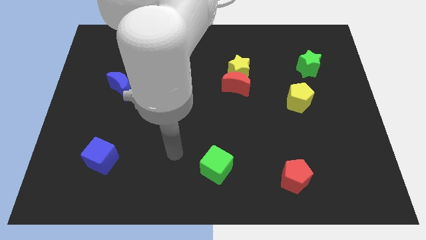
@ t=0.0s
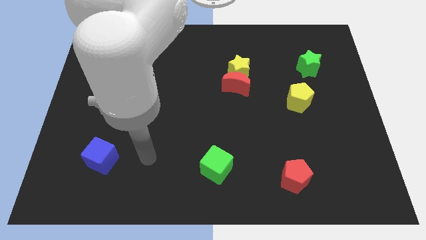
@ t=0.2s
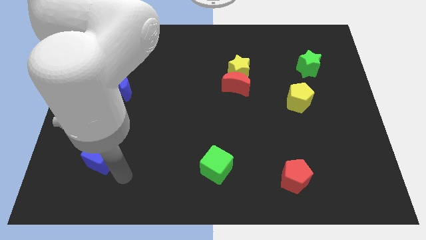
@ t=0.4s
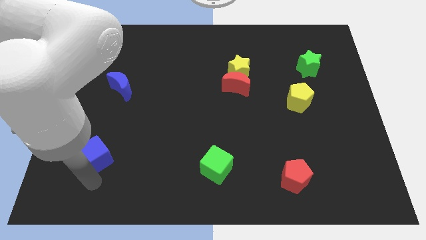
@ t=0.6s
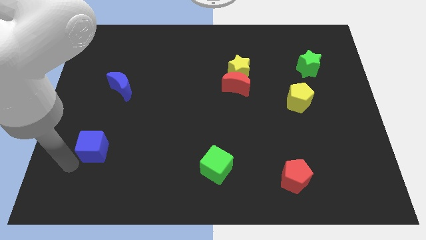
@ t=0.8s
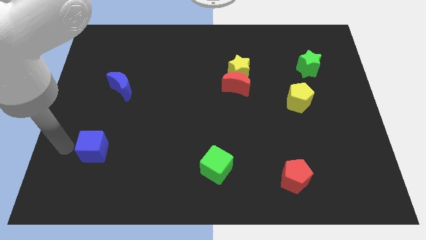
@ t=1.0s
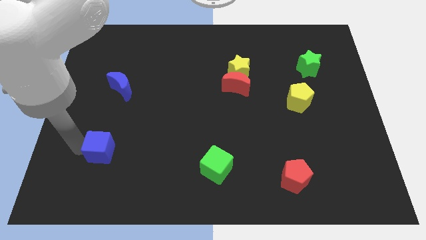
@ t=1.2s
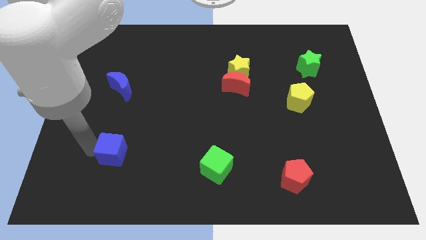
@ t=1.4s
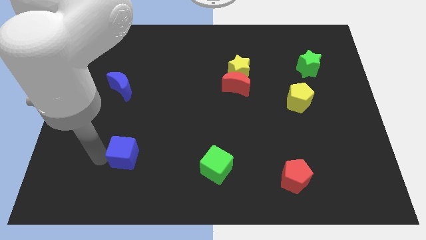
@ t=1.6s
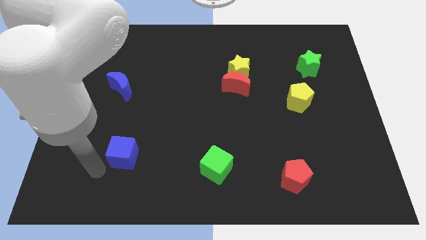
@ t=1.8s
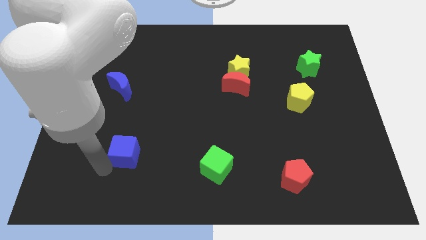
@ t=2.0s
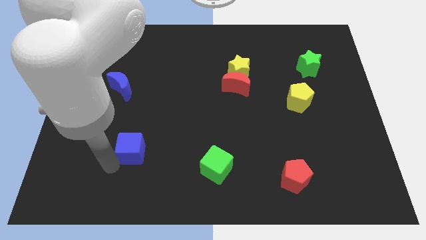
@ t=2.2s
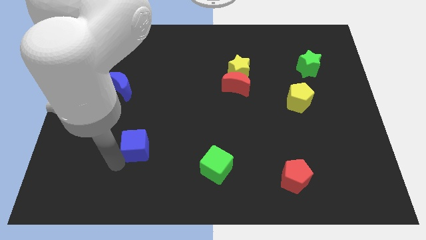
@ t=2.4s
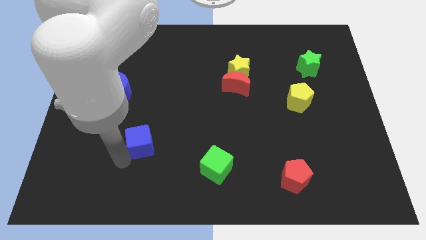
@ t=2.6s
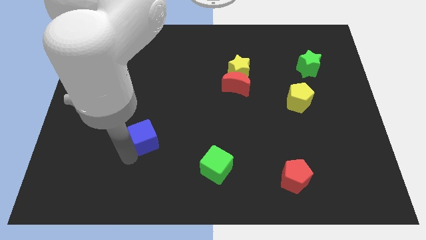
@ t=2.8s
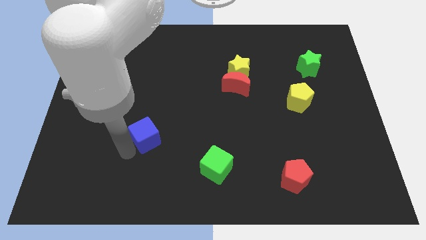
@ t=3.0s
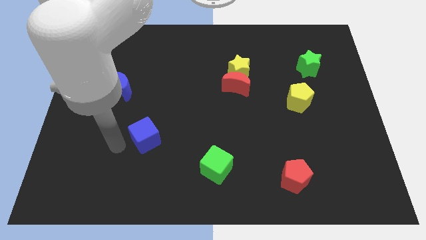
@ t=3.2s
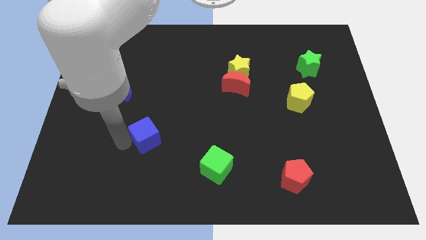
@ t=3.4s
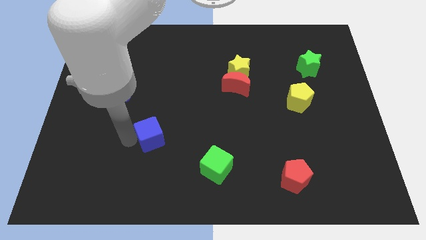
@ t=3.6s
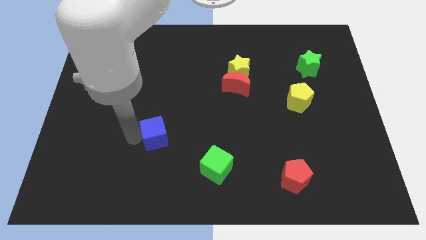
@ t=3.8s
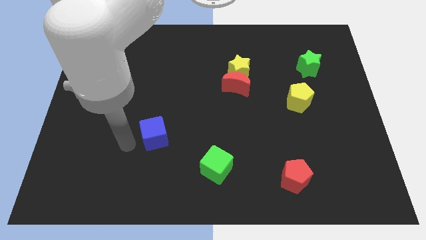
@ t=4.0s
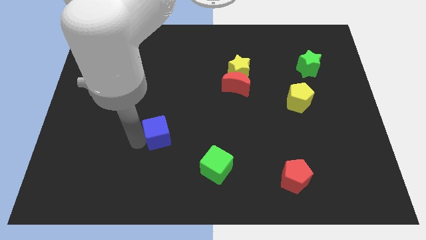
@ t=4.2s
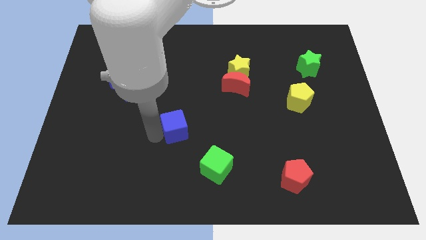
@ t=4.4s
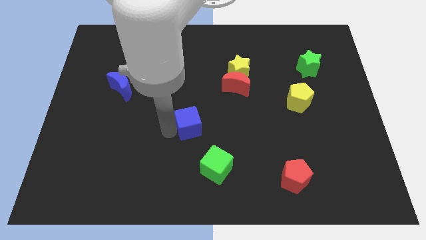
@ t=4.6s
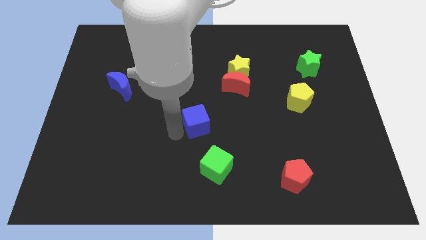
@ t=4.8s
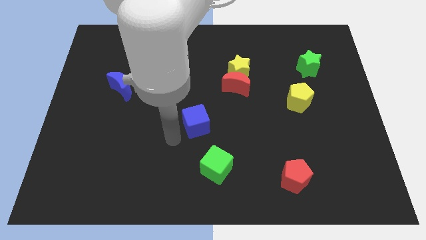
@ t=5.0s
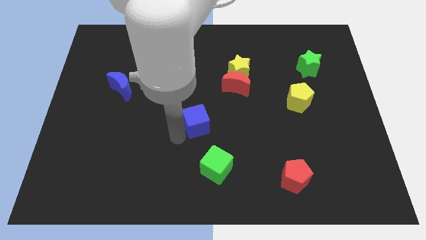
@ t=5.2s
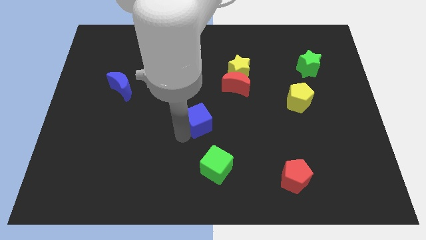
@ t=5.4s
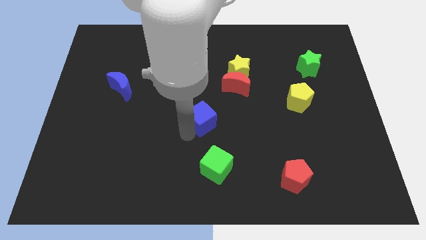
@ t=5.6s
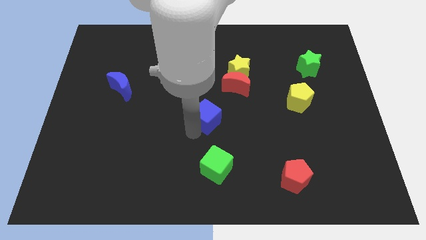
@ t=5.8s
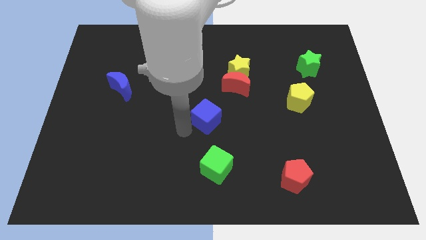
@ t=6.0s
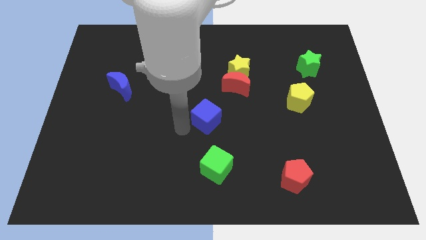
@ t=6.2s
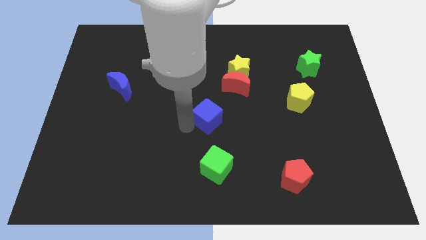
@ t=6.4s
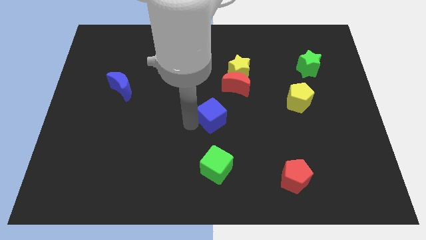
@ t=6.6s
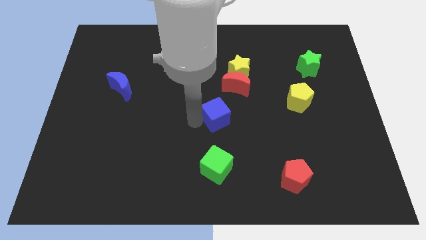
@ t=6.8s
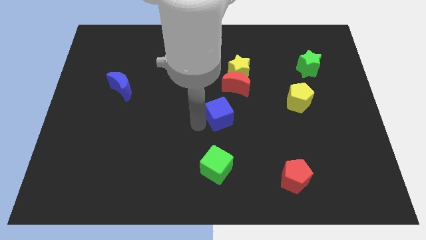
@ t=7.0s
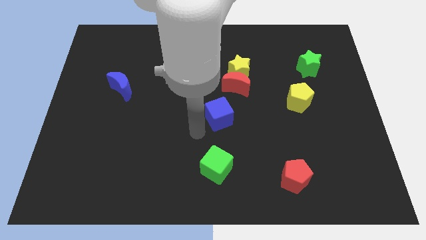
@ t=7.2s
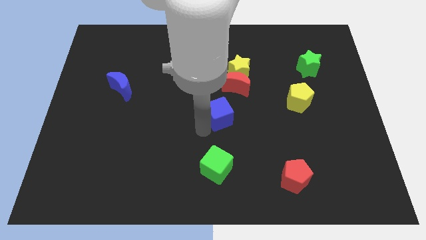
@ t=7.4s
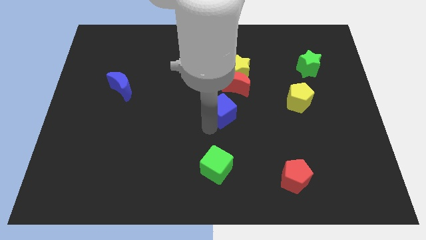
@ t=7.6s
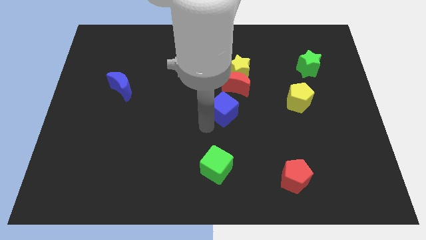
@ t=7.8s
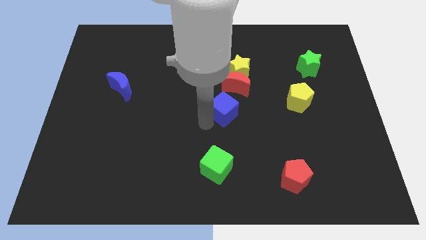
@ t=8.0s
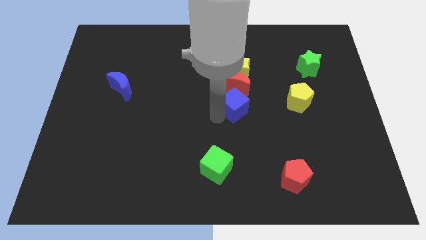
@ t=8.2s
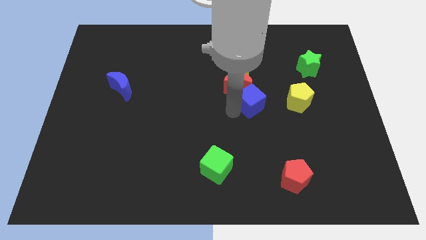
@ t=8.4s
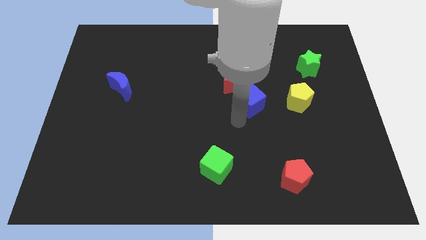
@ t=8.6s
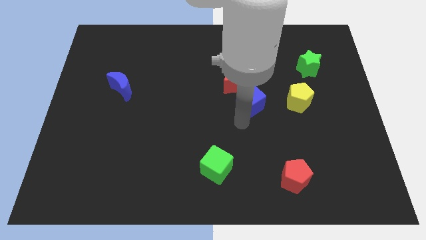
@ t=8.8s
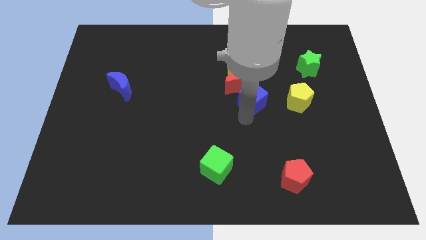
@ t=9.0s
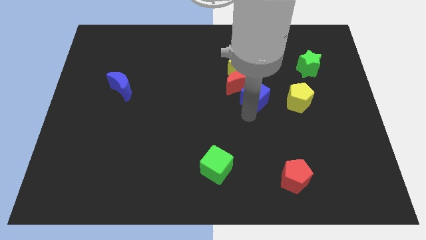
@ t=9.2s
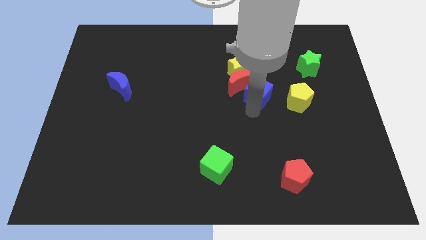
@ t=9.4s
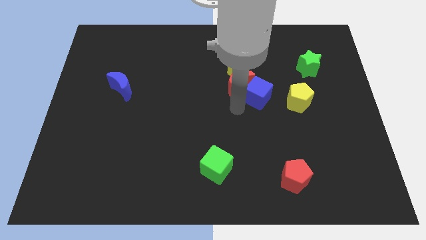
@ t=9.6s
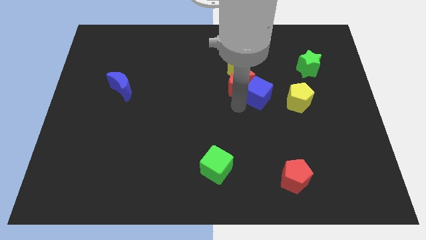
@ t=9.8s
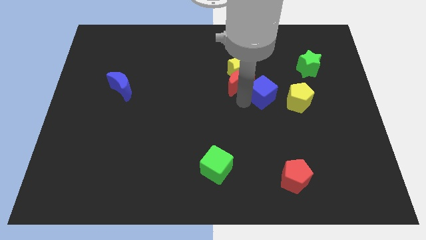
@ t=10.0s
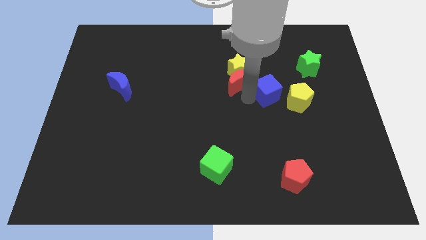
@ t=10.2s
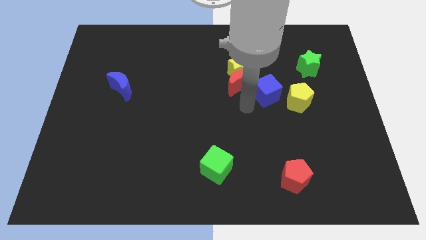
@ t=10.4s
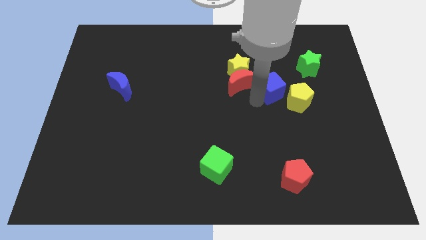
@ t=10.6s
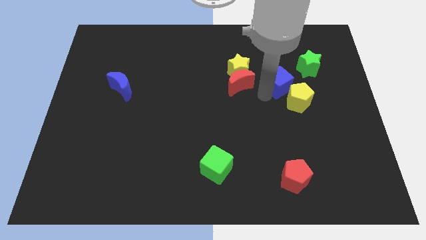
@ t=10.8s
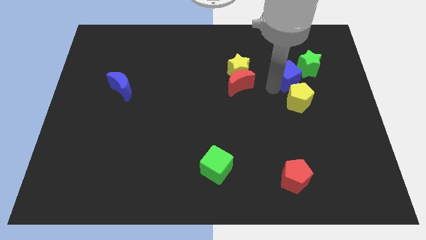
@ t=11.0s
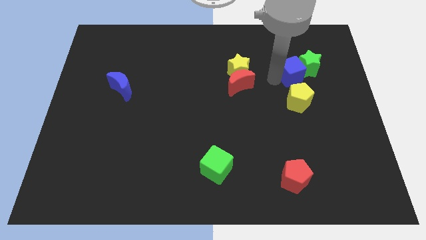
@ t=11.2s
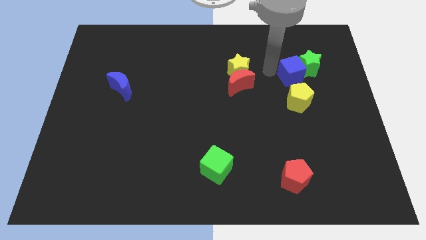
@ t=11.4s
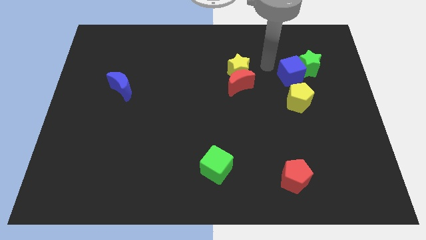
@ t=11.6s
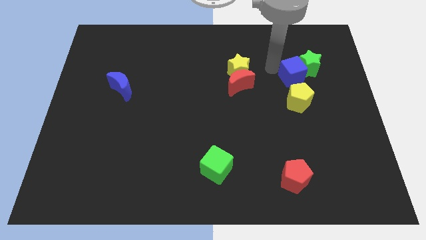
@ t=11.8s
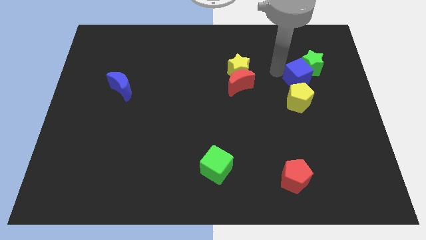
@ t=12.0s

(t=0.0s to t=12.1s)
move the blue cube to the top right side of the yellow pentagon

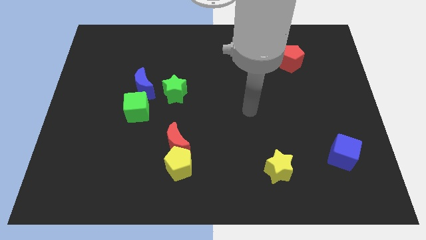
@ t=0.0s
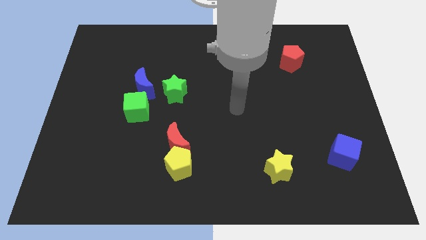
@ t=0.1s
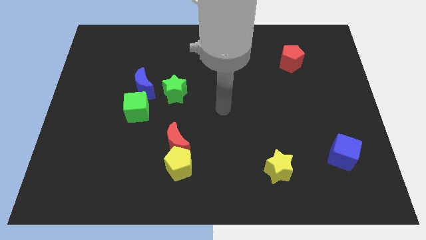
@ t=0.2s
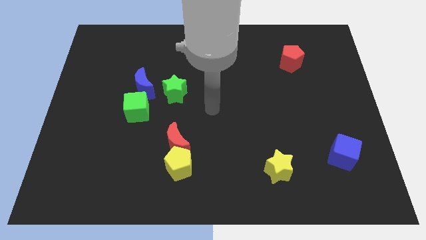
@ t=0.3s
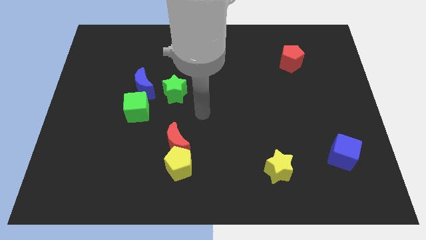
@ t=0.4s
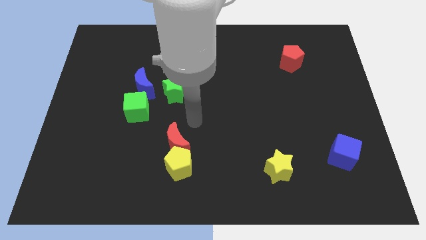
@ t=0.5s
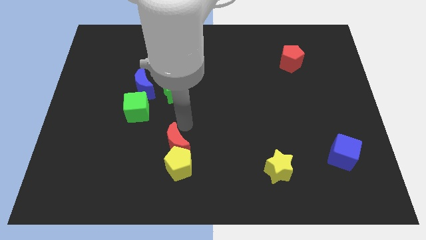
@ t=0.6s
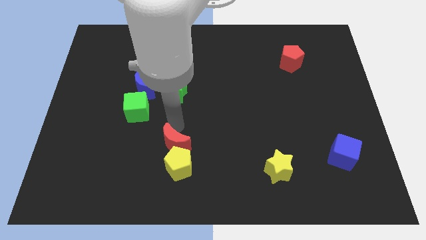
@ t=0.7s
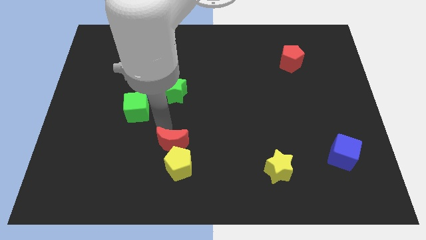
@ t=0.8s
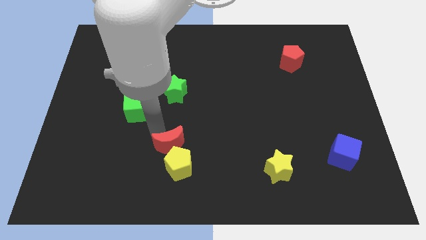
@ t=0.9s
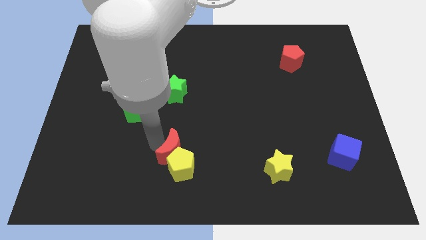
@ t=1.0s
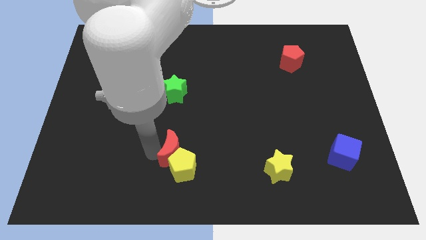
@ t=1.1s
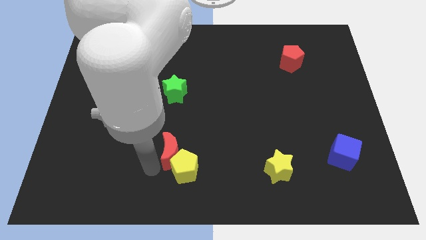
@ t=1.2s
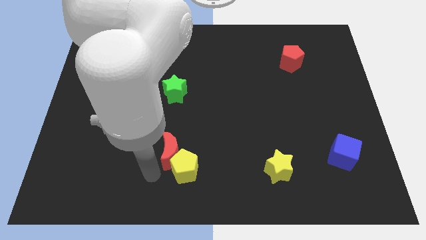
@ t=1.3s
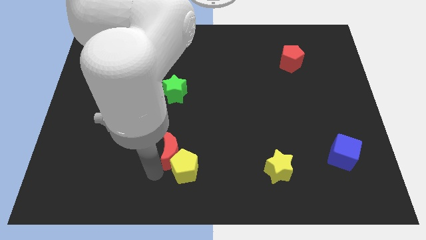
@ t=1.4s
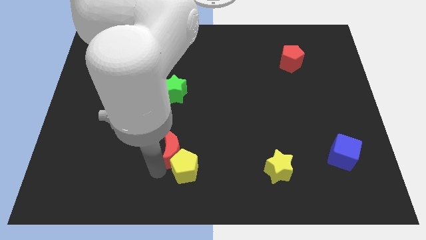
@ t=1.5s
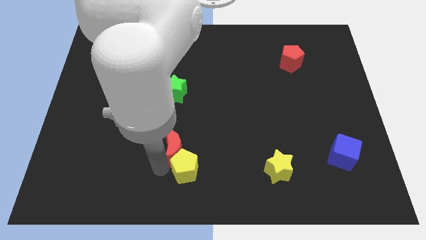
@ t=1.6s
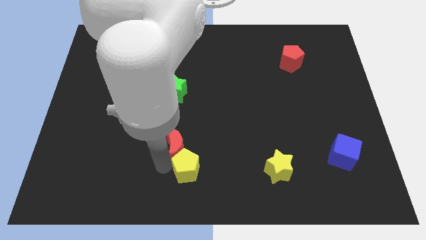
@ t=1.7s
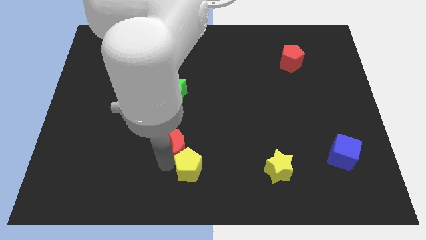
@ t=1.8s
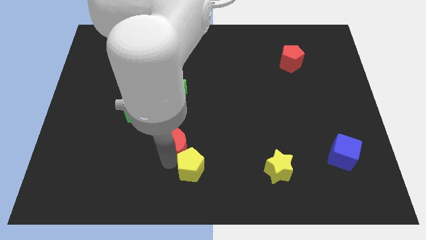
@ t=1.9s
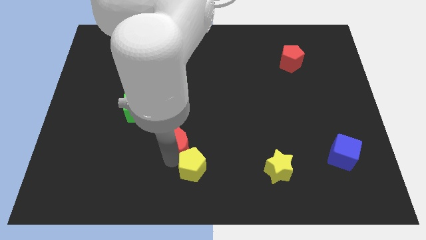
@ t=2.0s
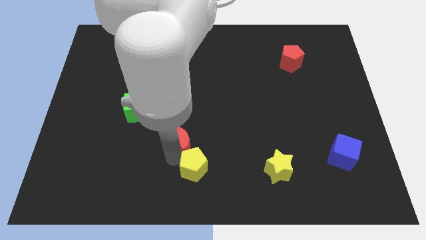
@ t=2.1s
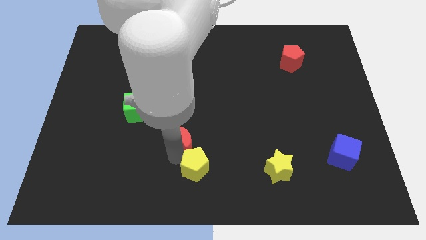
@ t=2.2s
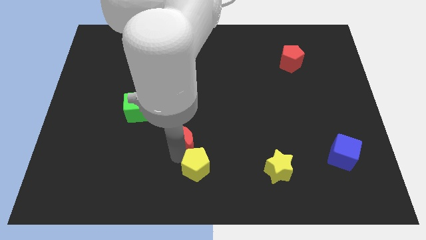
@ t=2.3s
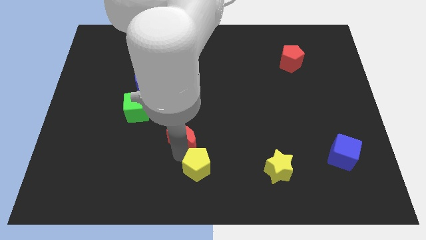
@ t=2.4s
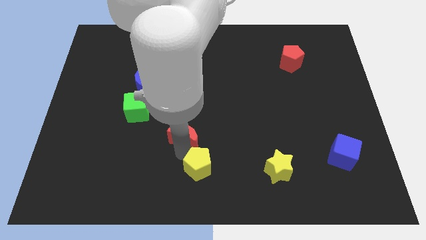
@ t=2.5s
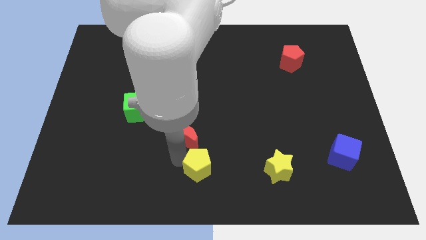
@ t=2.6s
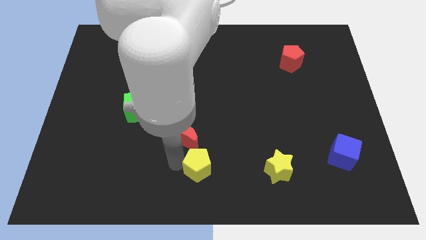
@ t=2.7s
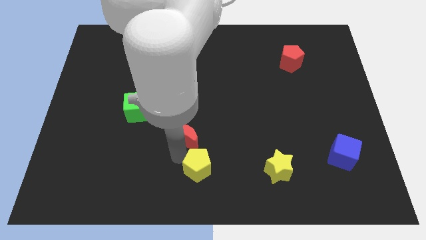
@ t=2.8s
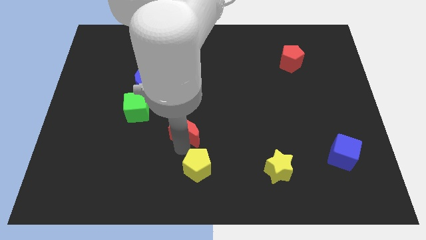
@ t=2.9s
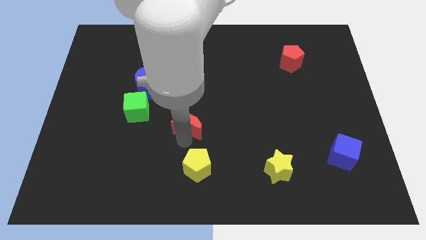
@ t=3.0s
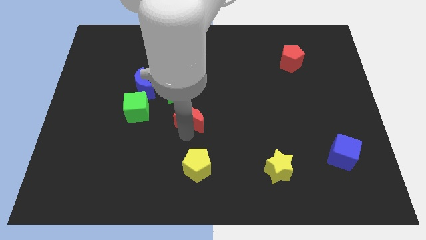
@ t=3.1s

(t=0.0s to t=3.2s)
move the red moon to the bottom right of the green star
